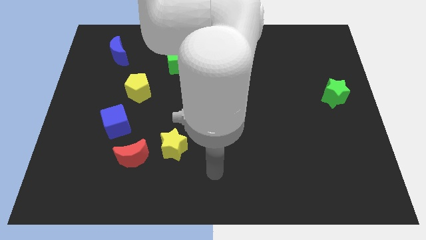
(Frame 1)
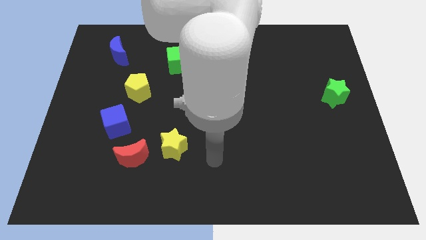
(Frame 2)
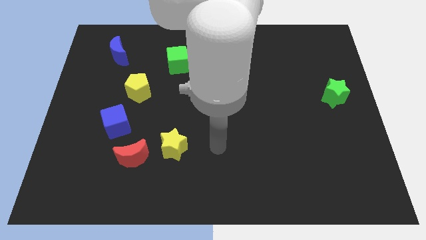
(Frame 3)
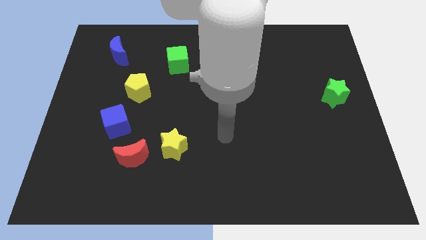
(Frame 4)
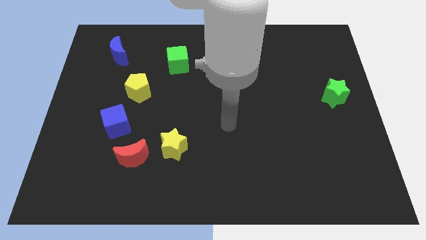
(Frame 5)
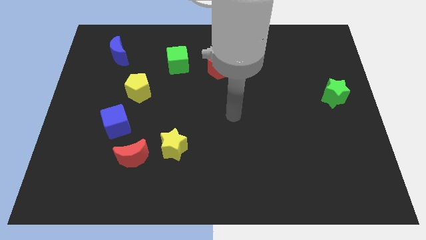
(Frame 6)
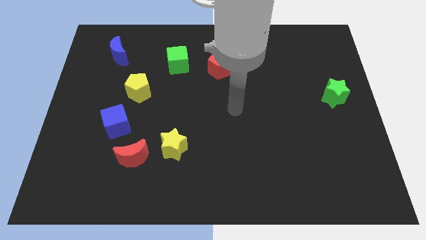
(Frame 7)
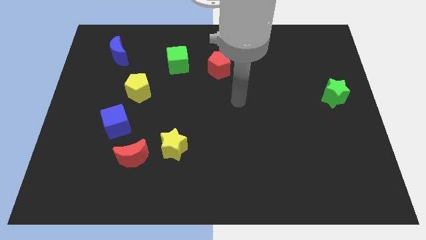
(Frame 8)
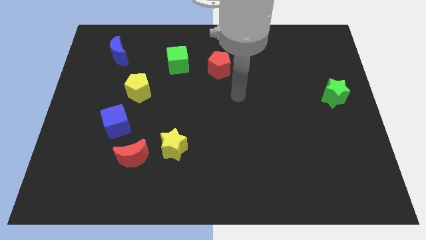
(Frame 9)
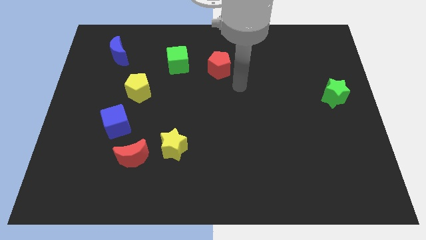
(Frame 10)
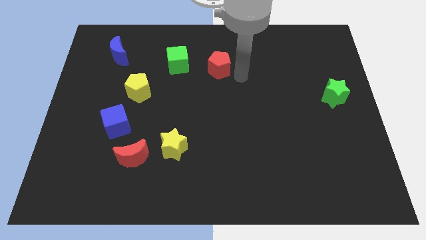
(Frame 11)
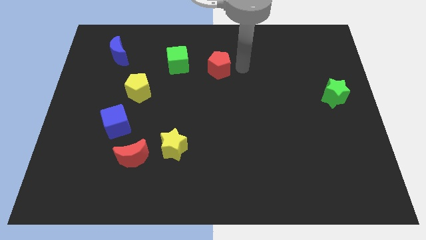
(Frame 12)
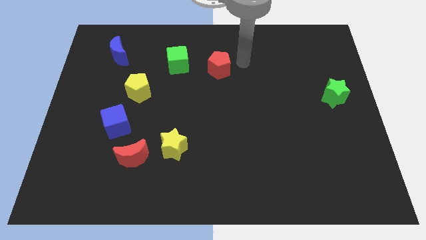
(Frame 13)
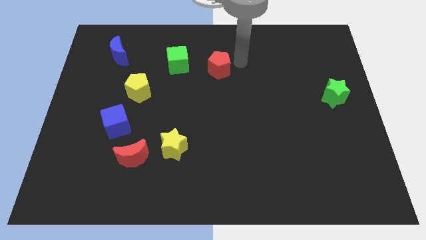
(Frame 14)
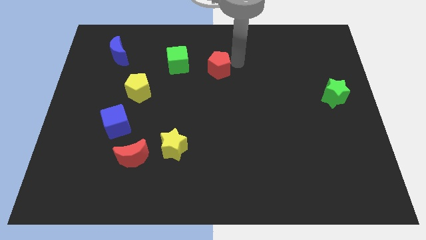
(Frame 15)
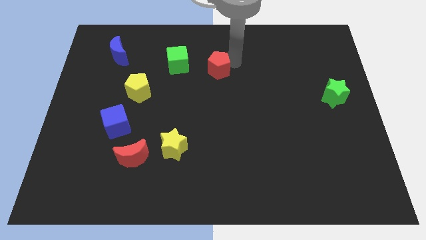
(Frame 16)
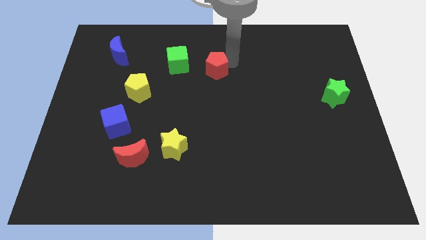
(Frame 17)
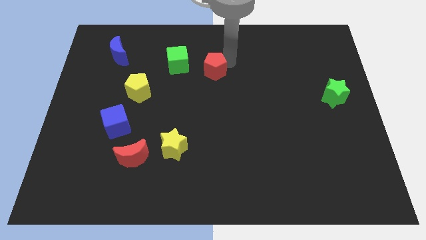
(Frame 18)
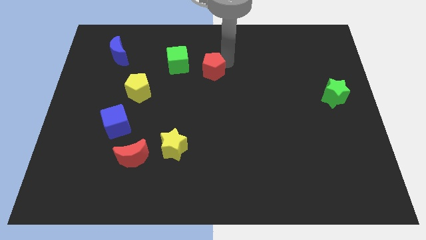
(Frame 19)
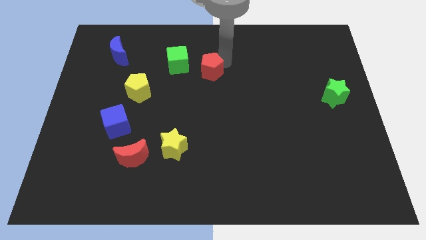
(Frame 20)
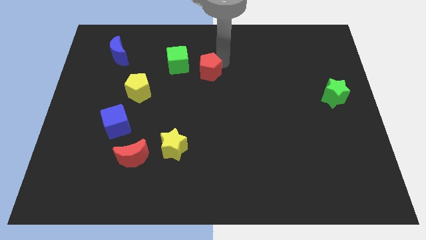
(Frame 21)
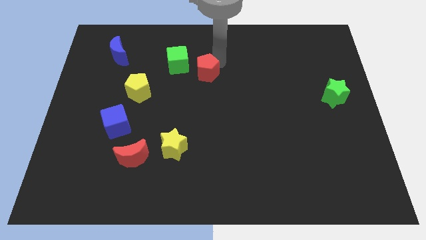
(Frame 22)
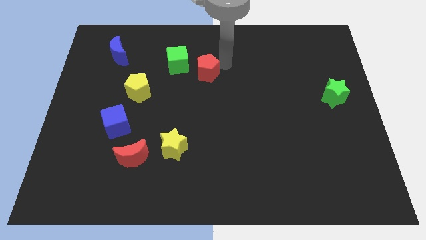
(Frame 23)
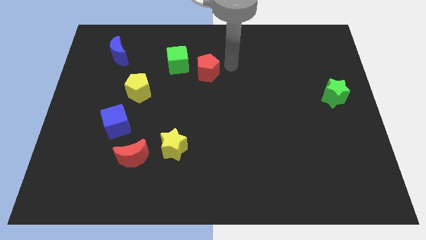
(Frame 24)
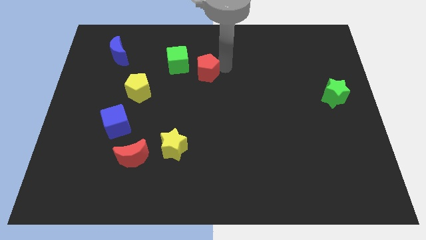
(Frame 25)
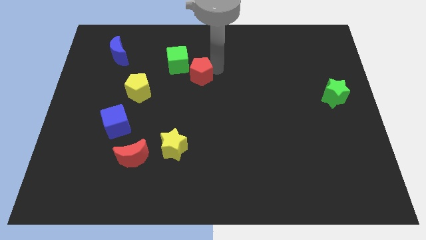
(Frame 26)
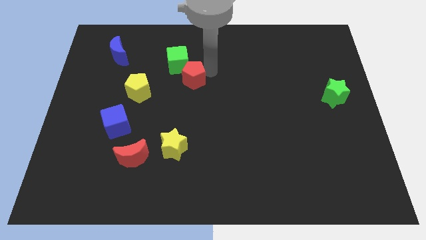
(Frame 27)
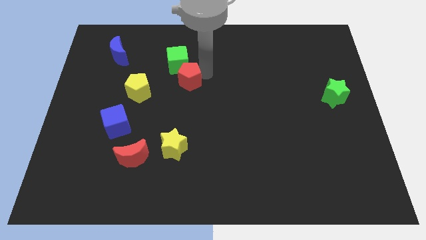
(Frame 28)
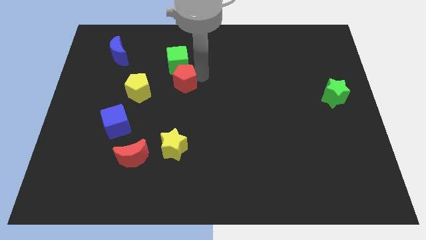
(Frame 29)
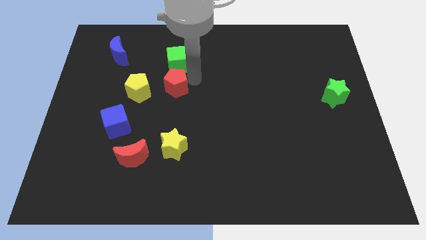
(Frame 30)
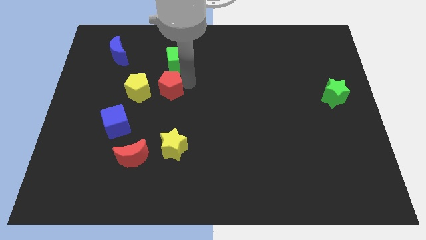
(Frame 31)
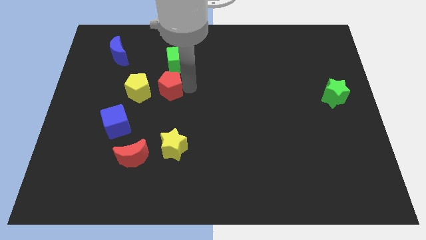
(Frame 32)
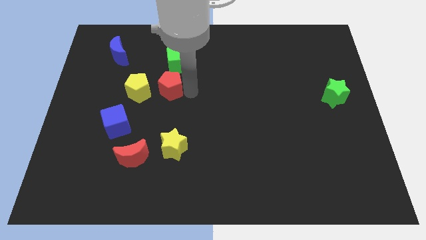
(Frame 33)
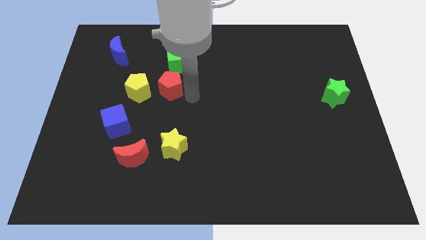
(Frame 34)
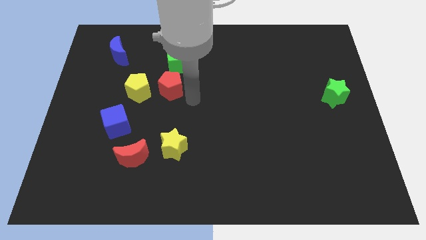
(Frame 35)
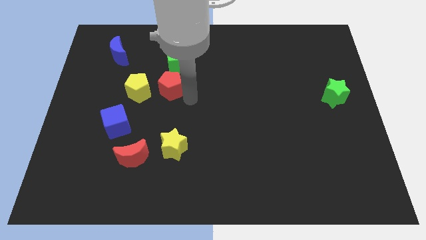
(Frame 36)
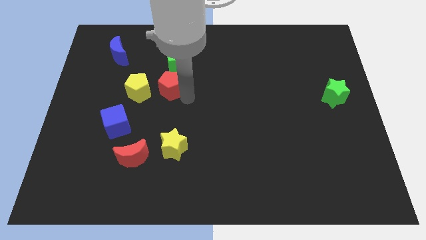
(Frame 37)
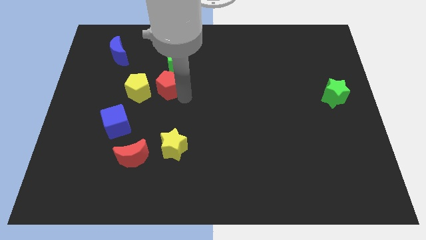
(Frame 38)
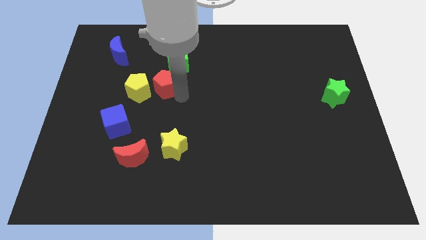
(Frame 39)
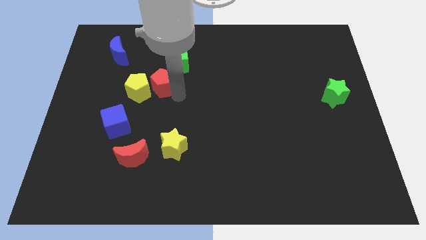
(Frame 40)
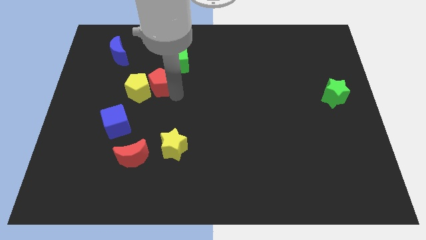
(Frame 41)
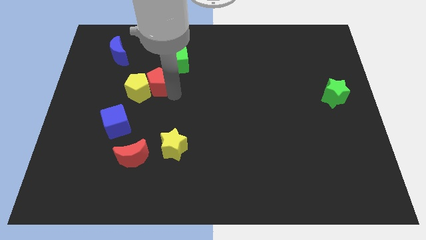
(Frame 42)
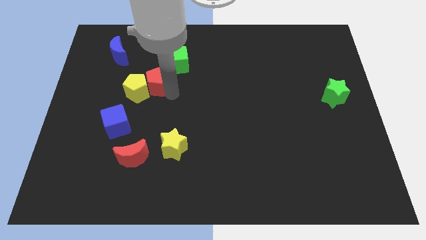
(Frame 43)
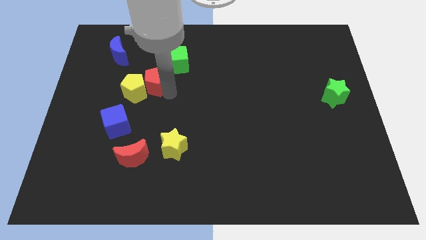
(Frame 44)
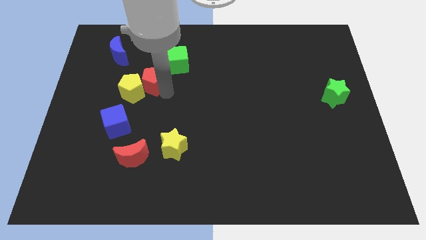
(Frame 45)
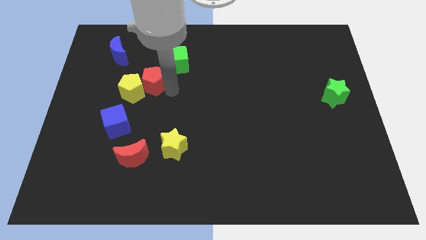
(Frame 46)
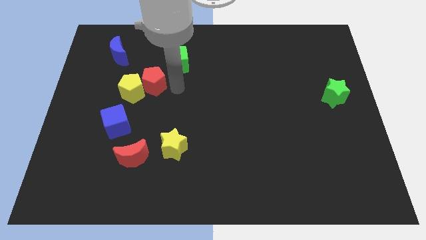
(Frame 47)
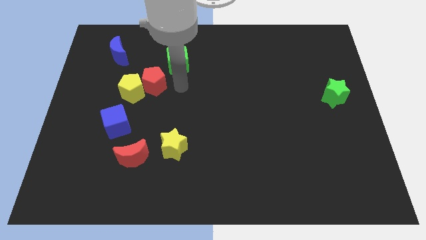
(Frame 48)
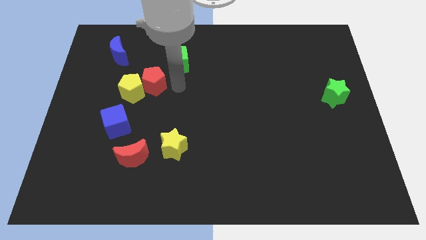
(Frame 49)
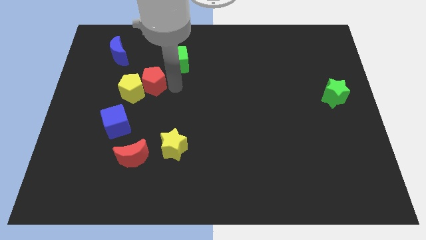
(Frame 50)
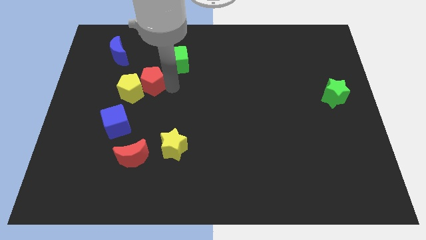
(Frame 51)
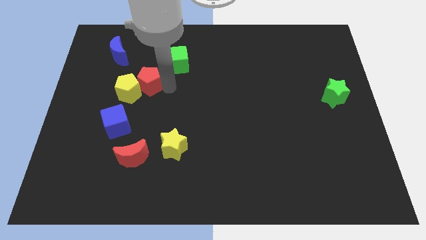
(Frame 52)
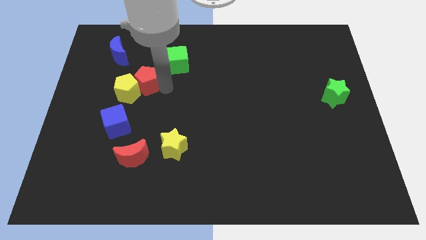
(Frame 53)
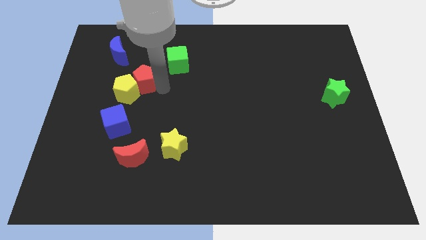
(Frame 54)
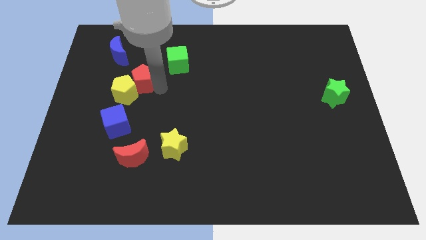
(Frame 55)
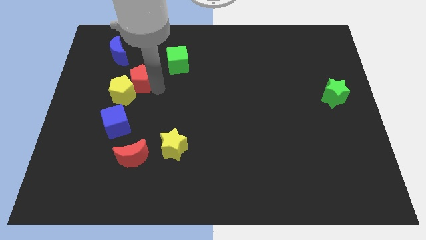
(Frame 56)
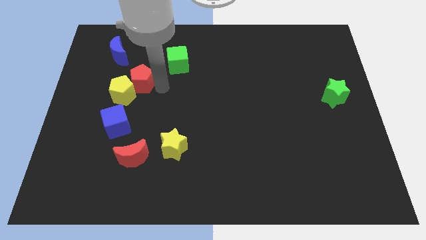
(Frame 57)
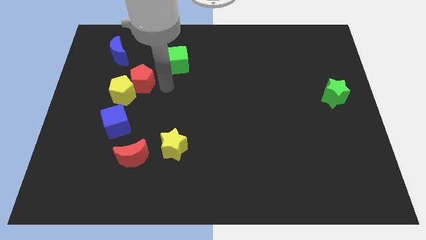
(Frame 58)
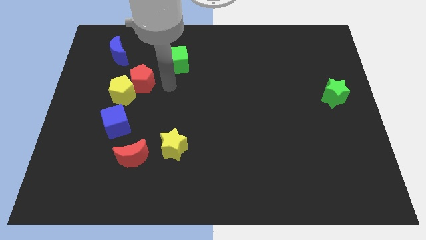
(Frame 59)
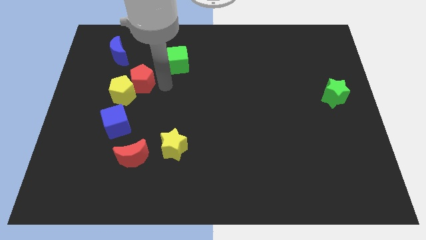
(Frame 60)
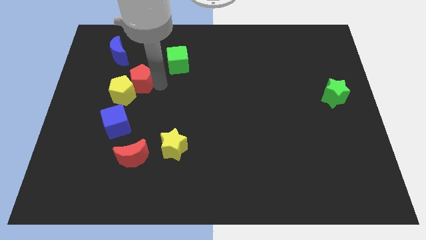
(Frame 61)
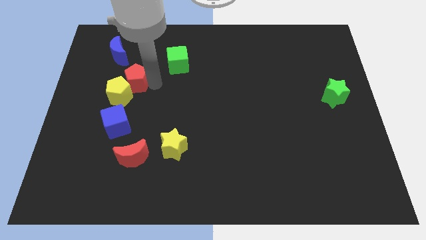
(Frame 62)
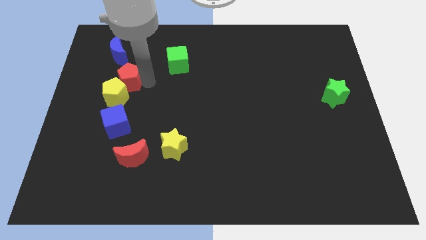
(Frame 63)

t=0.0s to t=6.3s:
put the red pentagon to the bottom of the blue moon

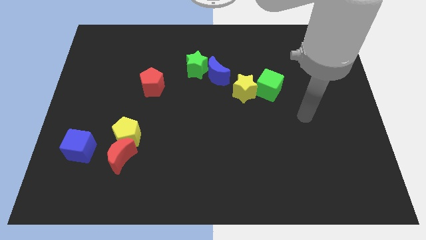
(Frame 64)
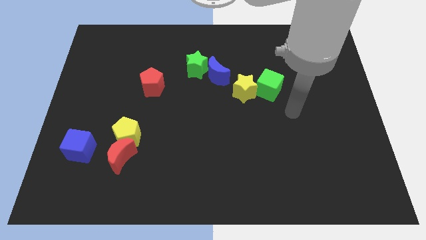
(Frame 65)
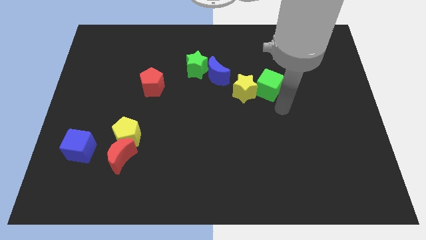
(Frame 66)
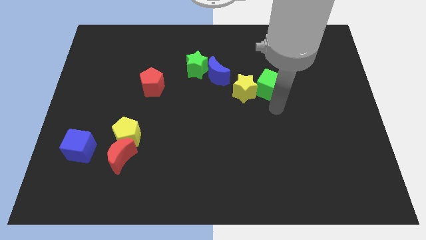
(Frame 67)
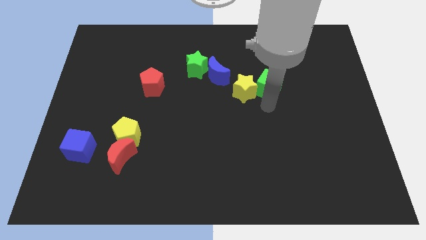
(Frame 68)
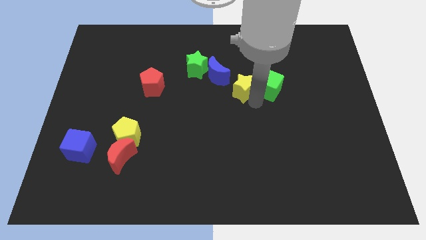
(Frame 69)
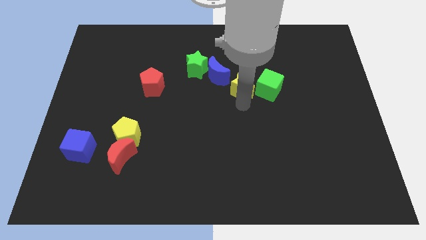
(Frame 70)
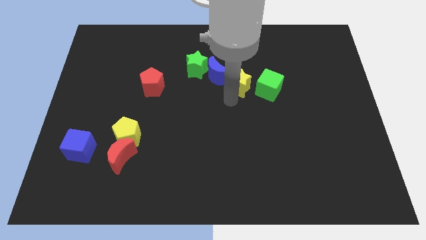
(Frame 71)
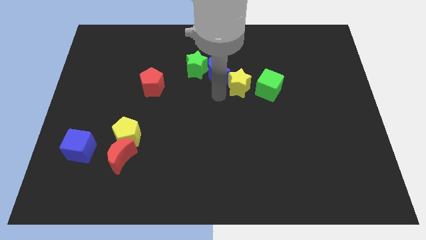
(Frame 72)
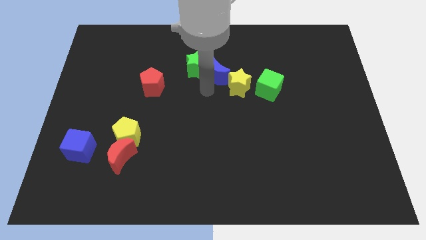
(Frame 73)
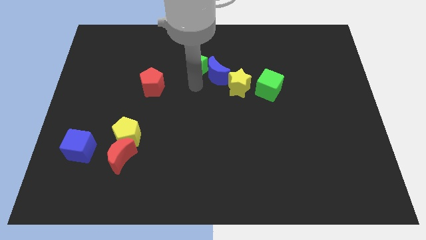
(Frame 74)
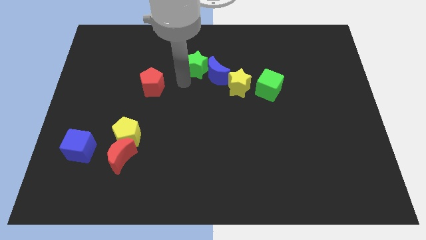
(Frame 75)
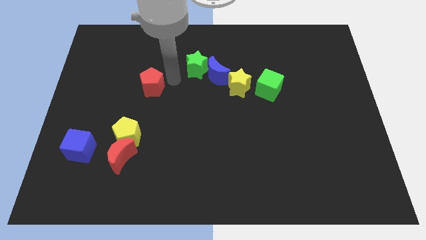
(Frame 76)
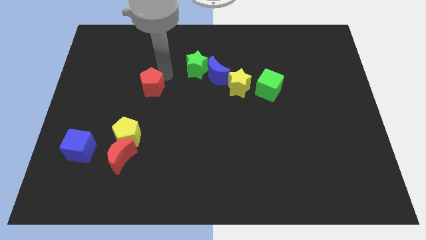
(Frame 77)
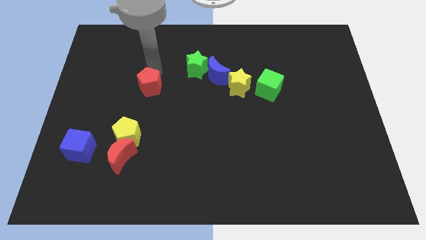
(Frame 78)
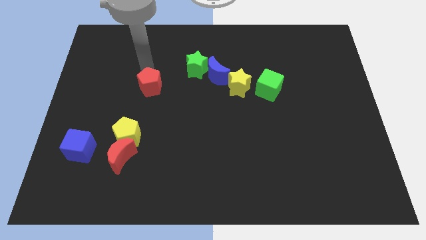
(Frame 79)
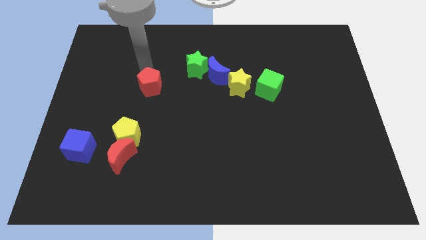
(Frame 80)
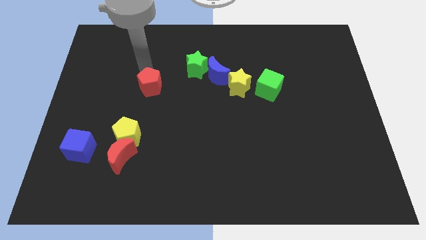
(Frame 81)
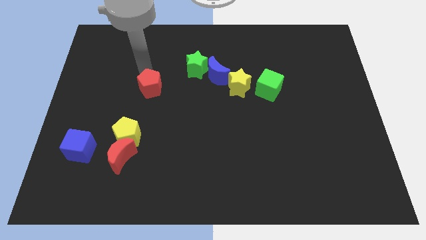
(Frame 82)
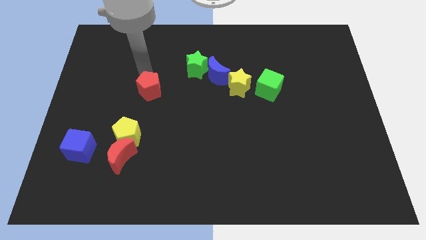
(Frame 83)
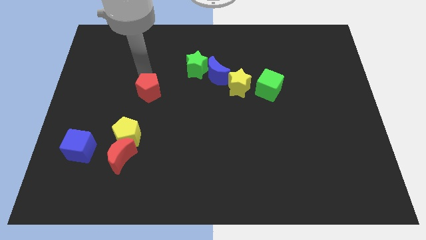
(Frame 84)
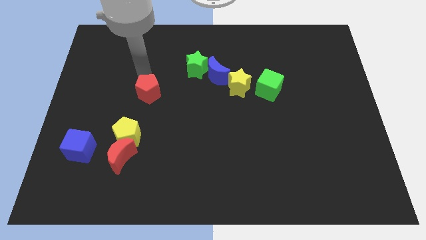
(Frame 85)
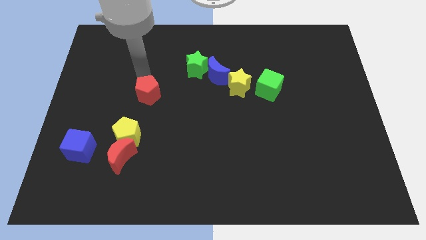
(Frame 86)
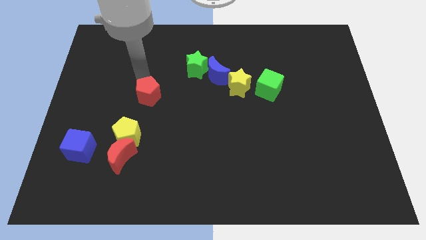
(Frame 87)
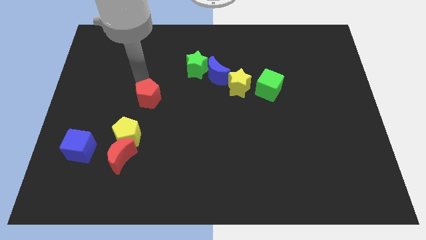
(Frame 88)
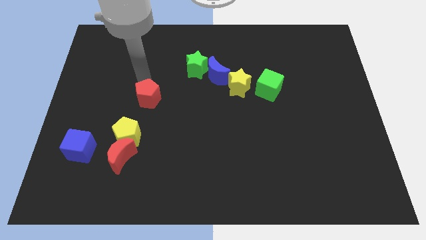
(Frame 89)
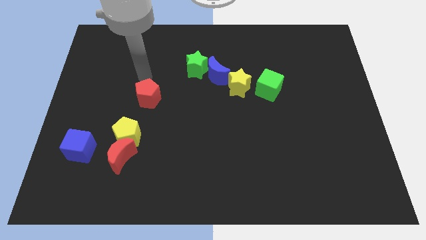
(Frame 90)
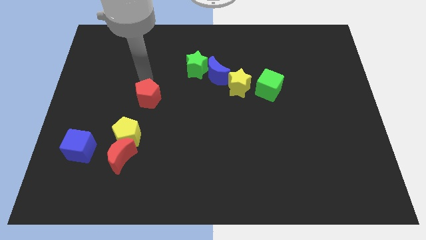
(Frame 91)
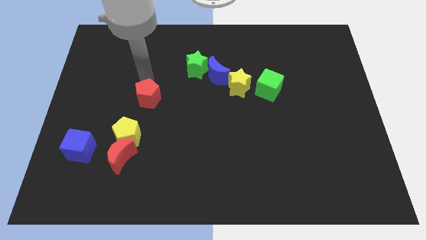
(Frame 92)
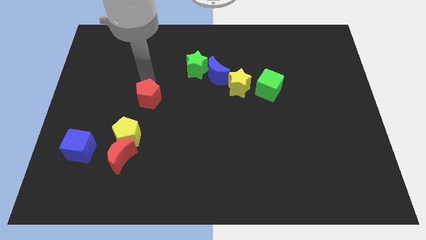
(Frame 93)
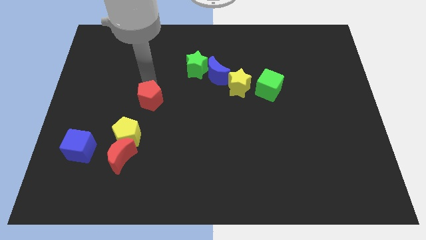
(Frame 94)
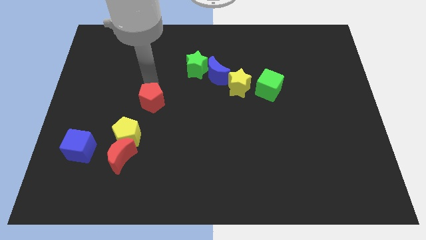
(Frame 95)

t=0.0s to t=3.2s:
slide the red pentagon to the top right side of the yellow pentagon
